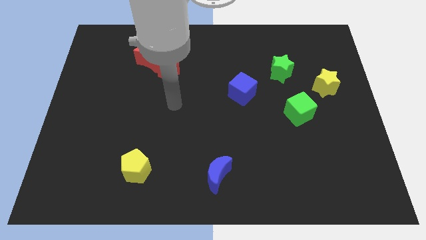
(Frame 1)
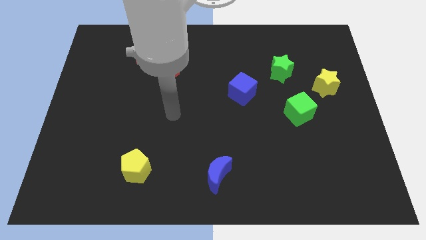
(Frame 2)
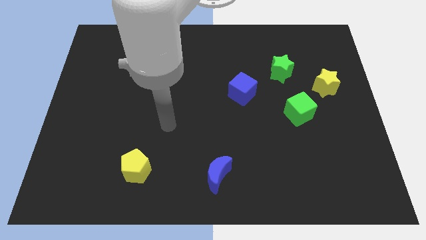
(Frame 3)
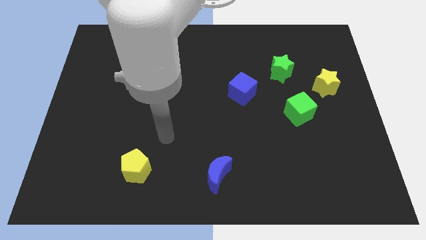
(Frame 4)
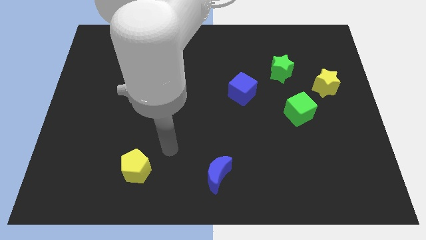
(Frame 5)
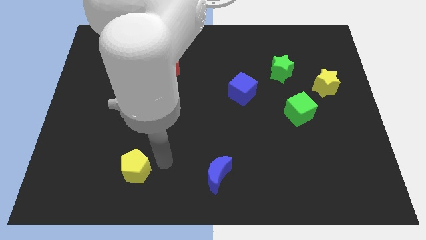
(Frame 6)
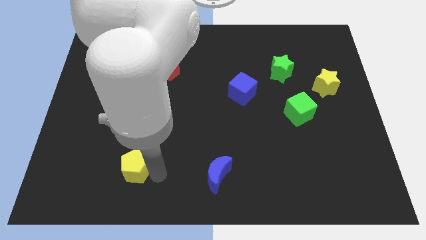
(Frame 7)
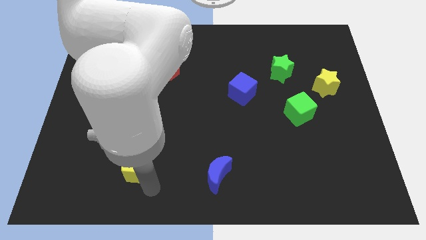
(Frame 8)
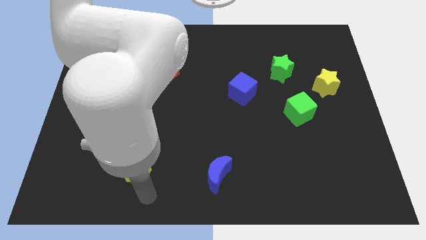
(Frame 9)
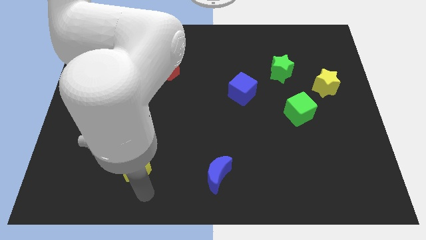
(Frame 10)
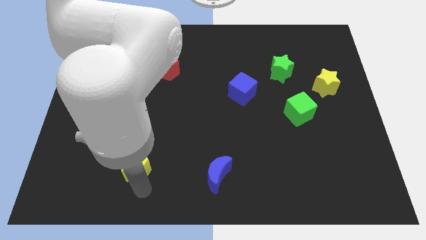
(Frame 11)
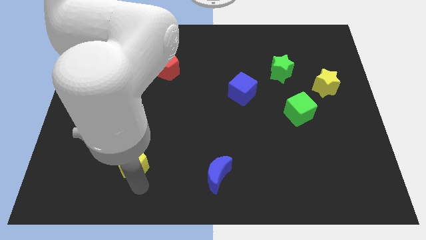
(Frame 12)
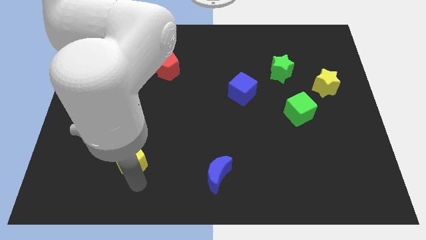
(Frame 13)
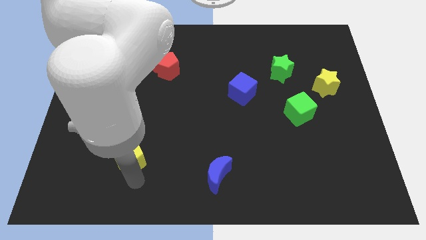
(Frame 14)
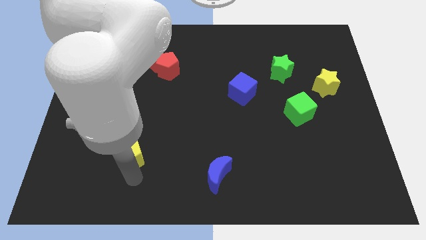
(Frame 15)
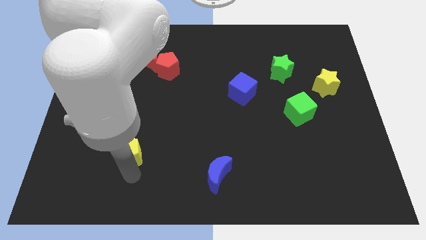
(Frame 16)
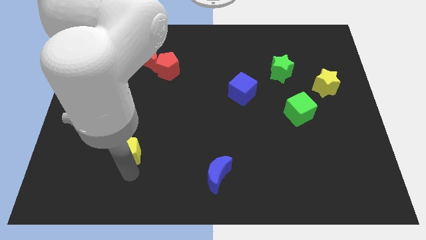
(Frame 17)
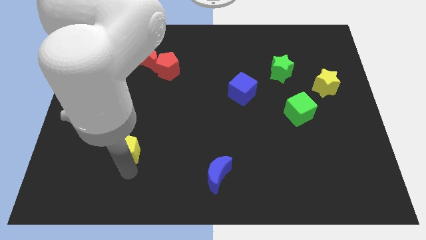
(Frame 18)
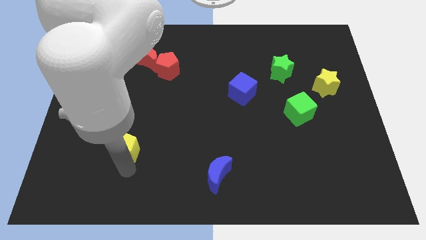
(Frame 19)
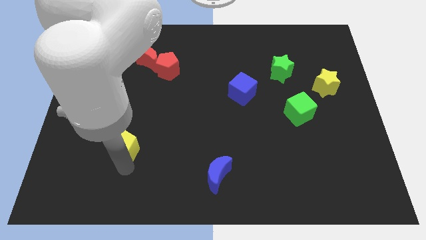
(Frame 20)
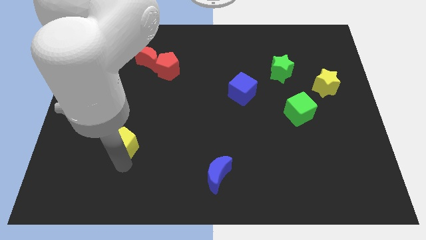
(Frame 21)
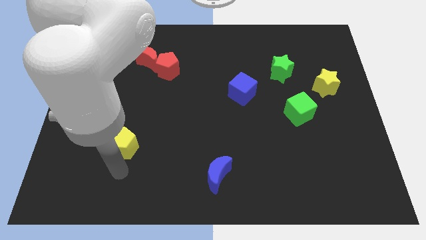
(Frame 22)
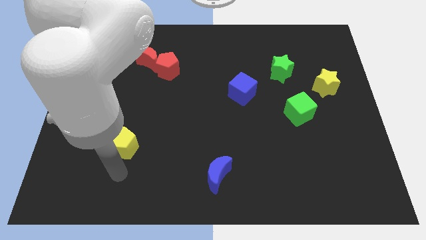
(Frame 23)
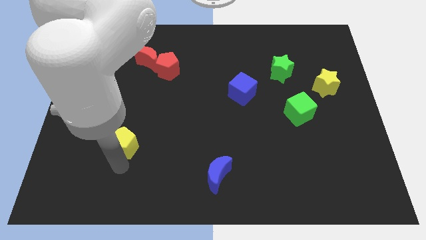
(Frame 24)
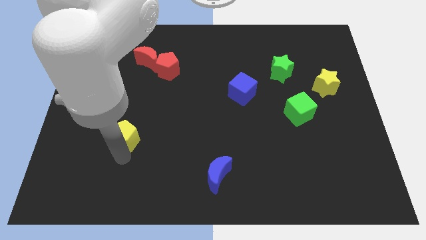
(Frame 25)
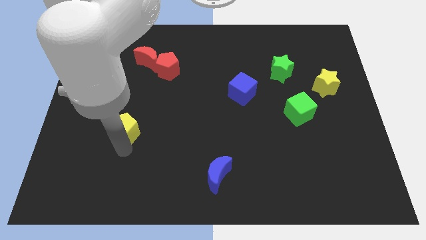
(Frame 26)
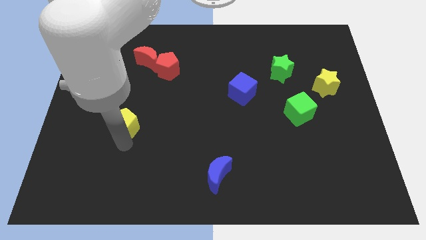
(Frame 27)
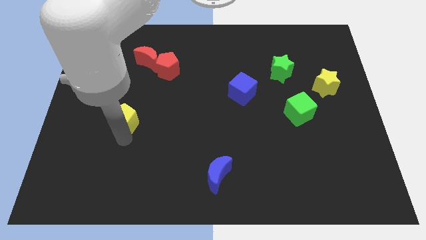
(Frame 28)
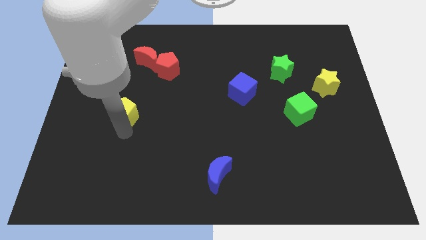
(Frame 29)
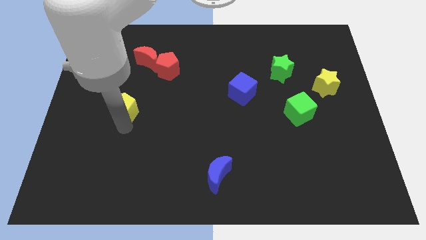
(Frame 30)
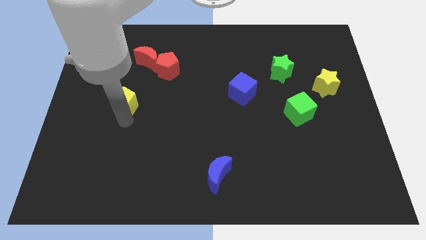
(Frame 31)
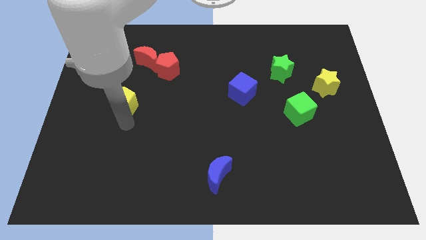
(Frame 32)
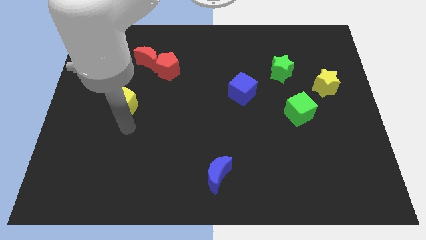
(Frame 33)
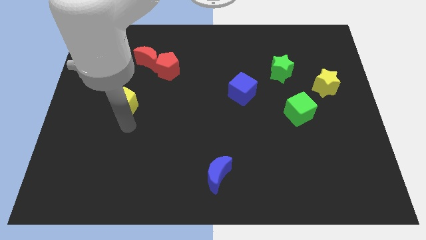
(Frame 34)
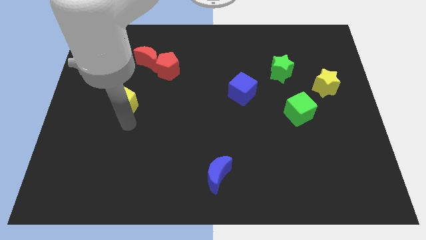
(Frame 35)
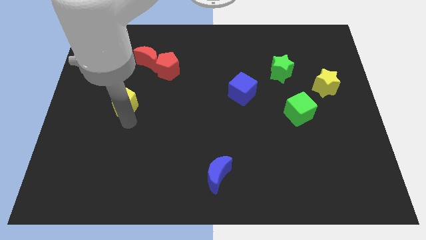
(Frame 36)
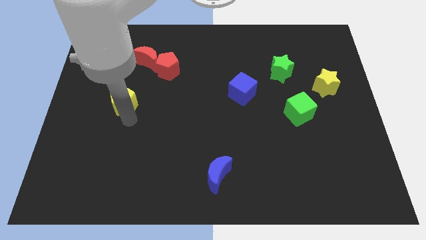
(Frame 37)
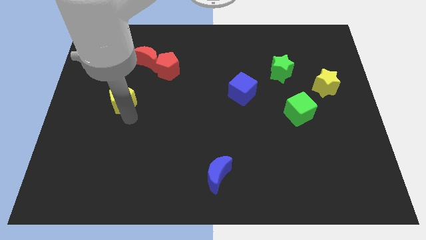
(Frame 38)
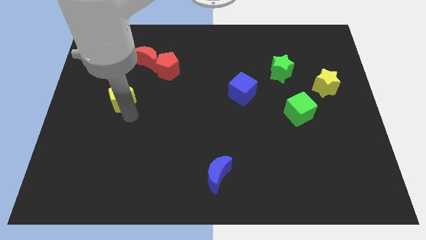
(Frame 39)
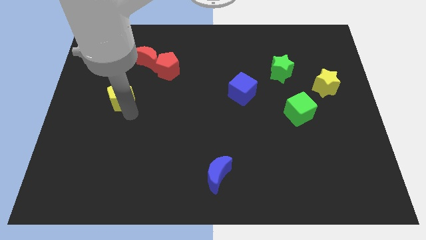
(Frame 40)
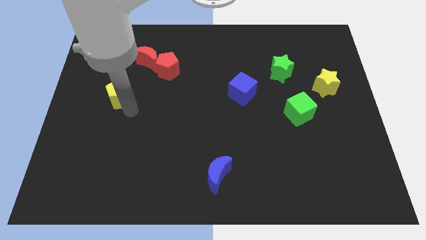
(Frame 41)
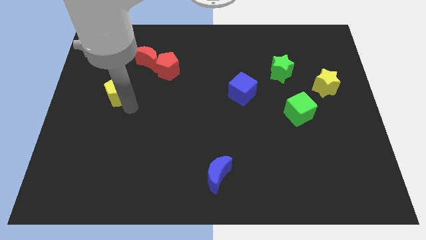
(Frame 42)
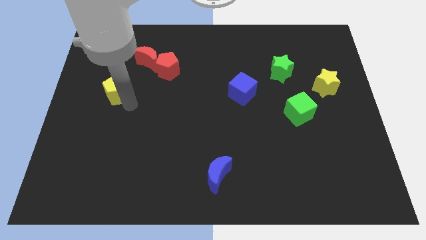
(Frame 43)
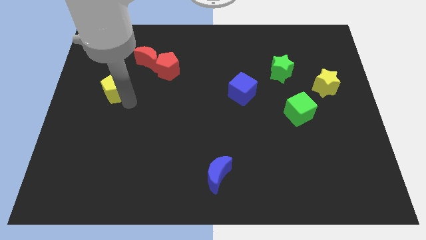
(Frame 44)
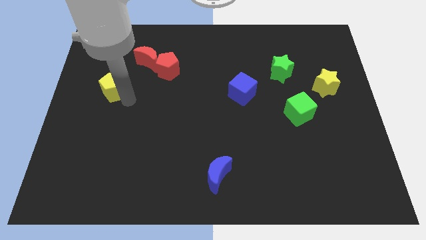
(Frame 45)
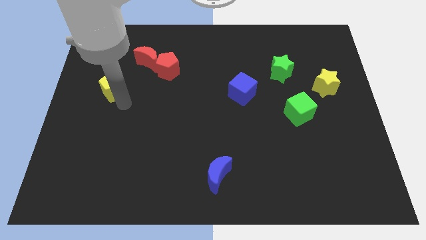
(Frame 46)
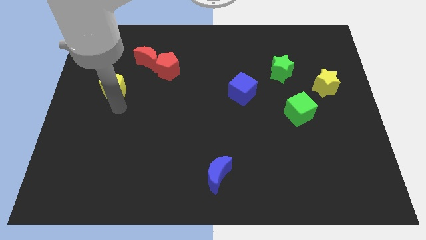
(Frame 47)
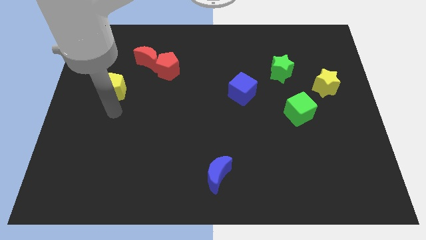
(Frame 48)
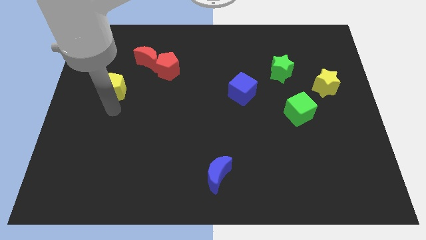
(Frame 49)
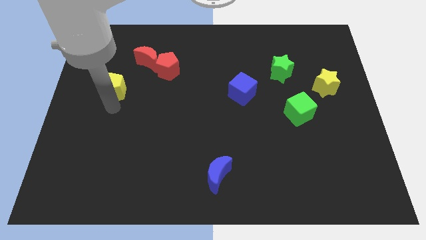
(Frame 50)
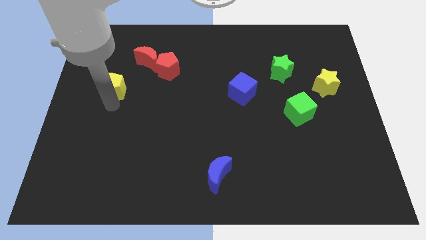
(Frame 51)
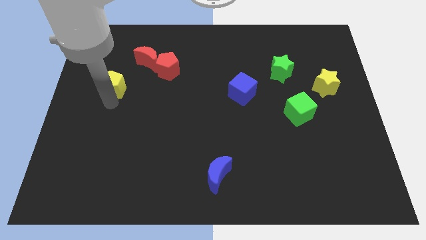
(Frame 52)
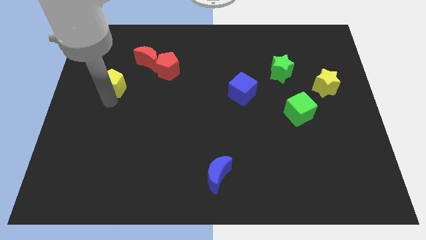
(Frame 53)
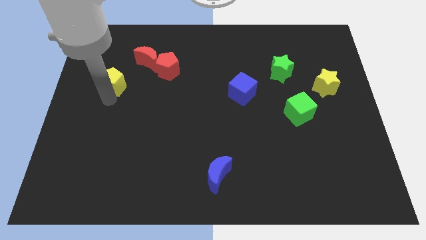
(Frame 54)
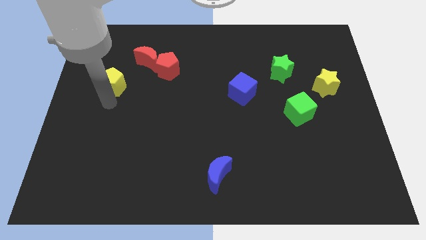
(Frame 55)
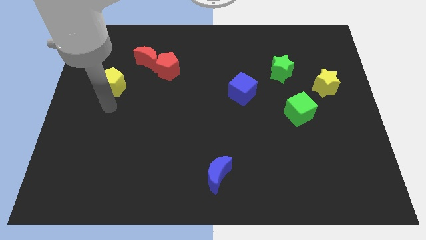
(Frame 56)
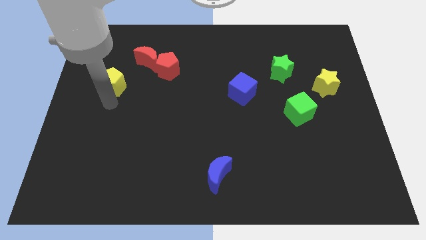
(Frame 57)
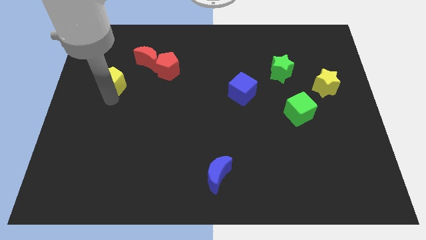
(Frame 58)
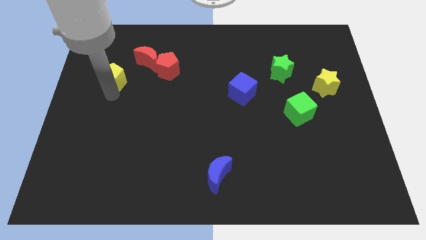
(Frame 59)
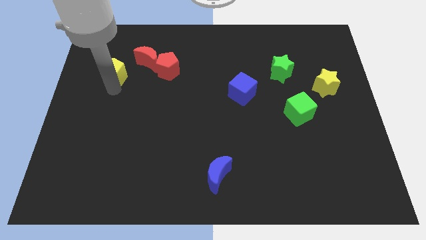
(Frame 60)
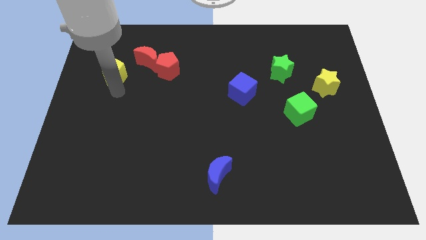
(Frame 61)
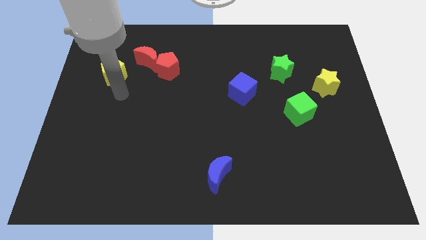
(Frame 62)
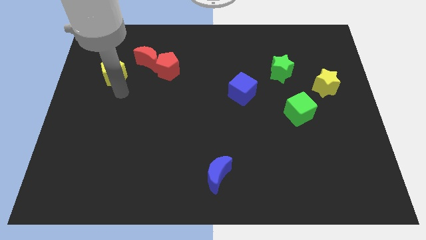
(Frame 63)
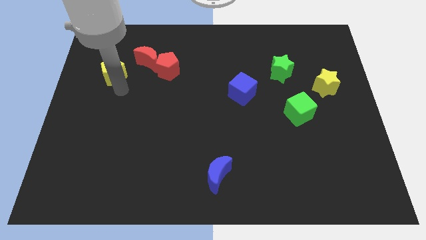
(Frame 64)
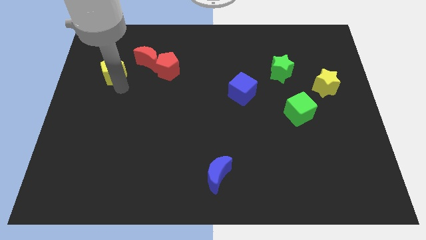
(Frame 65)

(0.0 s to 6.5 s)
put the yellow pentagon to the left of the red moon

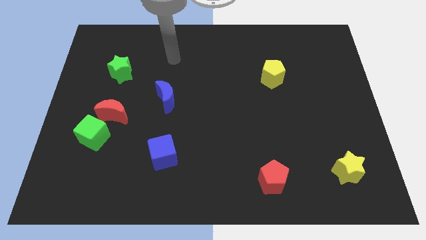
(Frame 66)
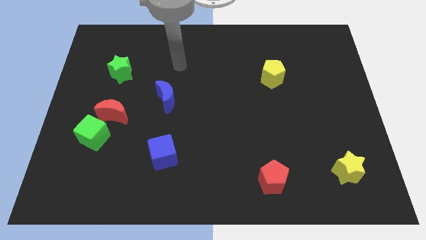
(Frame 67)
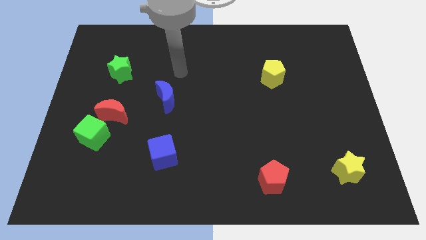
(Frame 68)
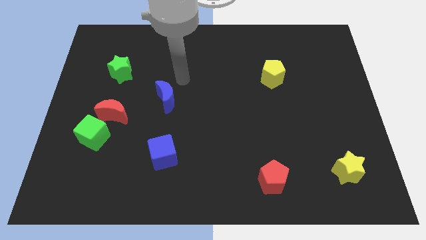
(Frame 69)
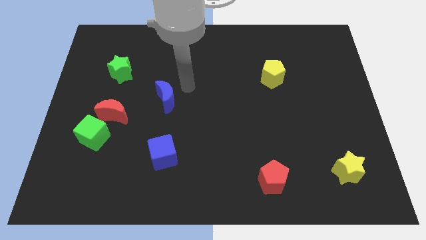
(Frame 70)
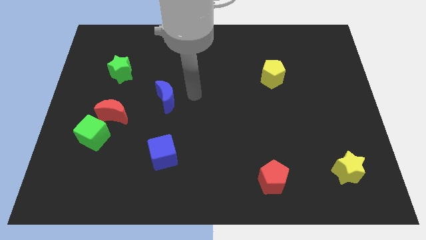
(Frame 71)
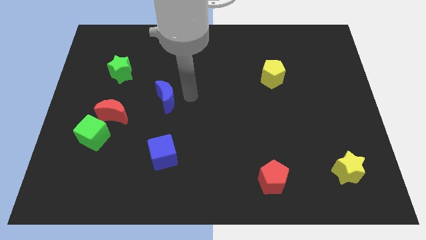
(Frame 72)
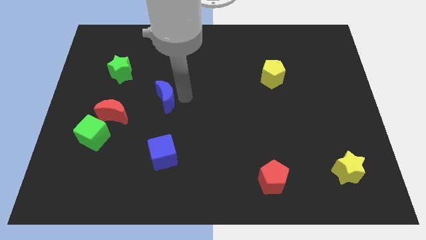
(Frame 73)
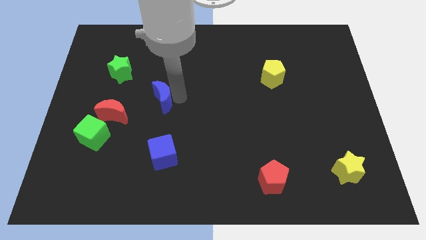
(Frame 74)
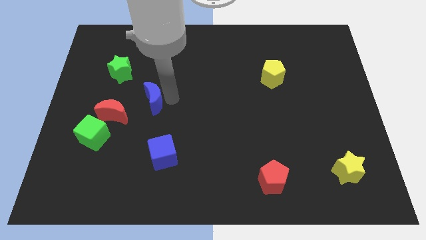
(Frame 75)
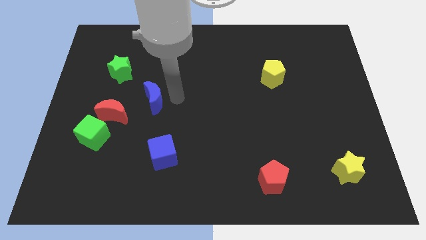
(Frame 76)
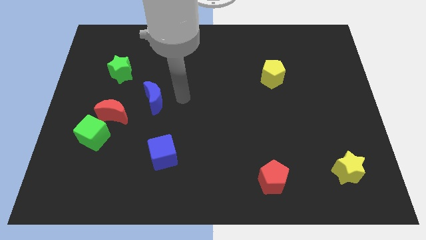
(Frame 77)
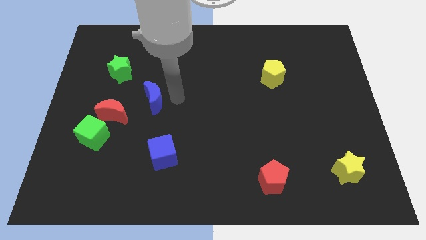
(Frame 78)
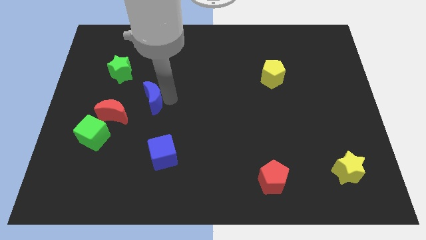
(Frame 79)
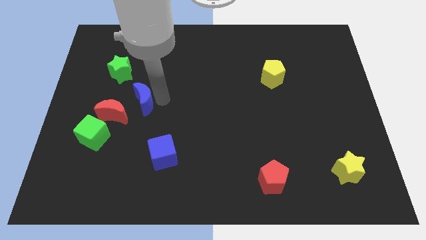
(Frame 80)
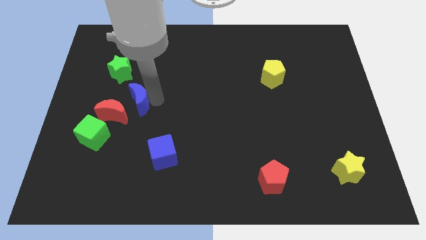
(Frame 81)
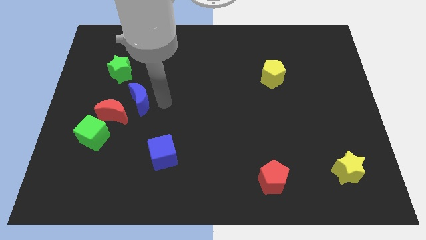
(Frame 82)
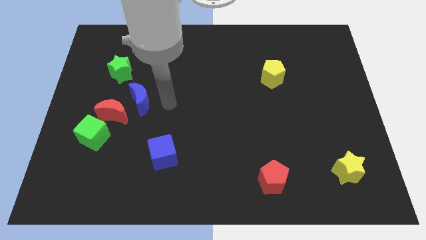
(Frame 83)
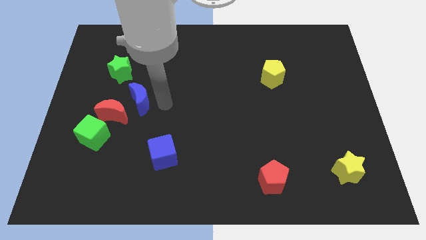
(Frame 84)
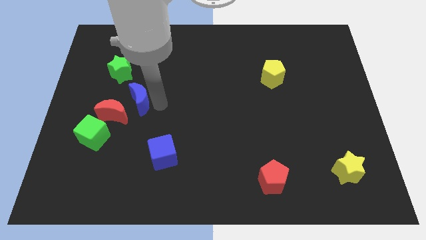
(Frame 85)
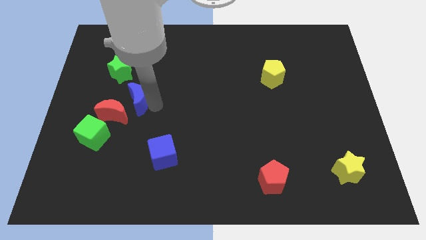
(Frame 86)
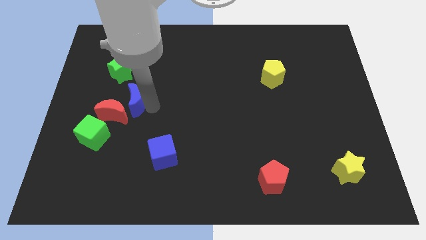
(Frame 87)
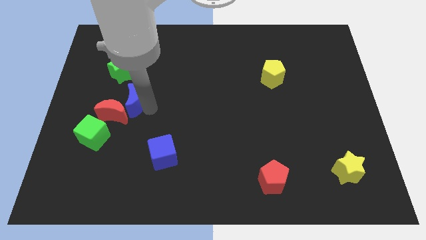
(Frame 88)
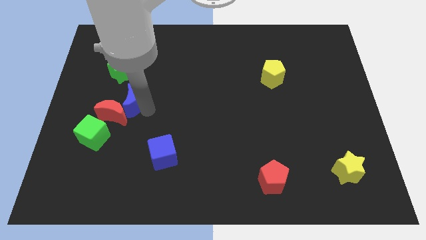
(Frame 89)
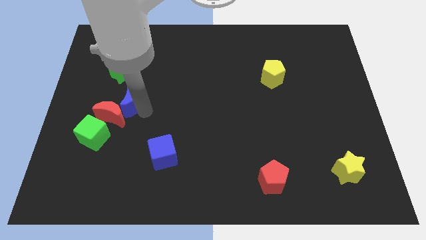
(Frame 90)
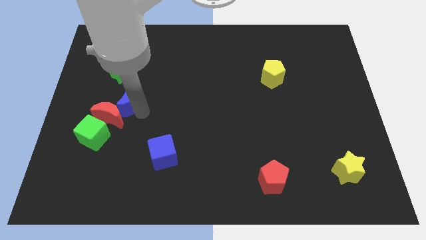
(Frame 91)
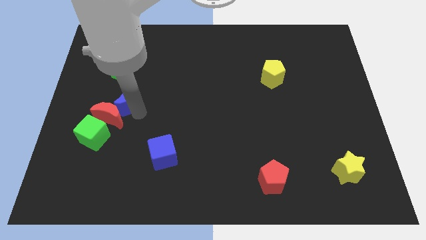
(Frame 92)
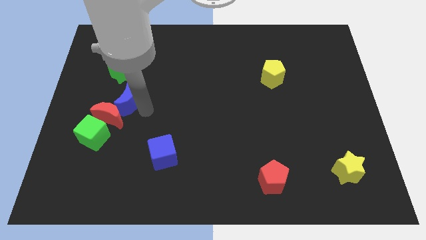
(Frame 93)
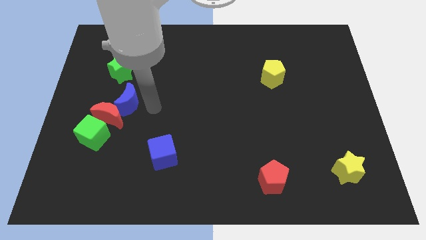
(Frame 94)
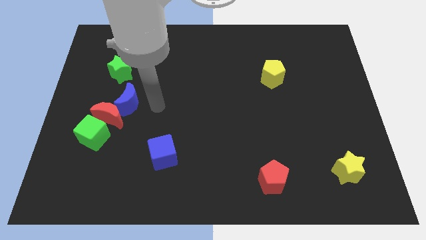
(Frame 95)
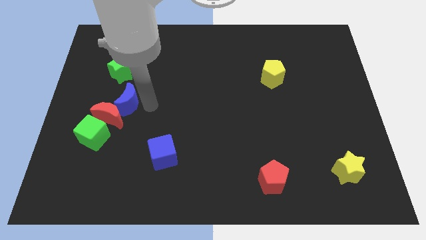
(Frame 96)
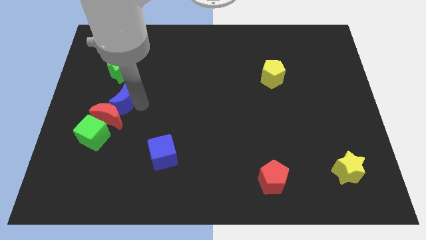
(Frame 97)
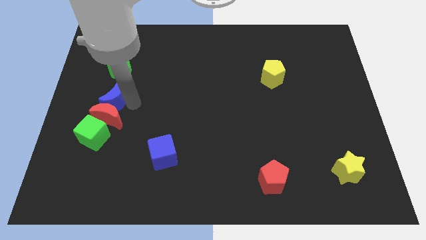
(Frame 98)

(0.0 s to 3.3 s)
push the blue moon to the top left of the red moon
